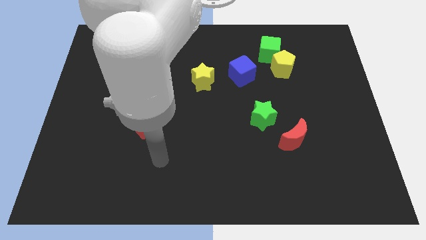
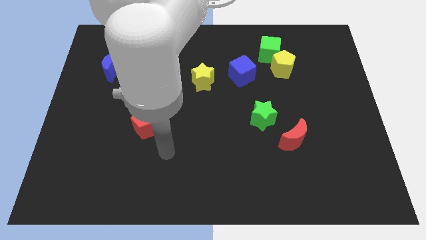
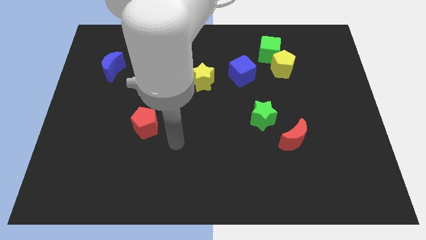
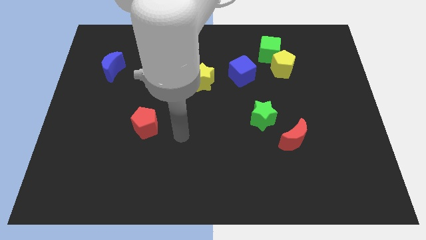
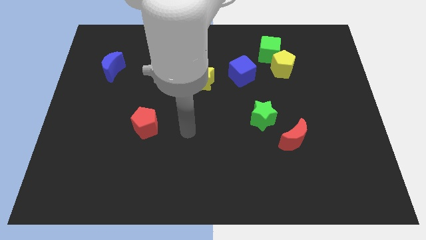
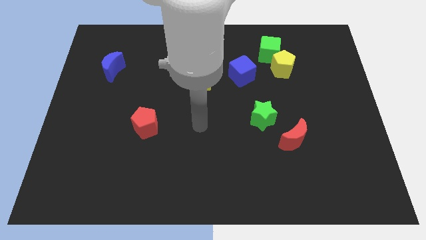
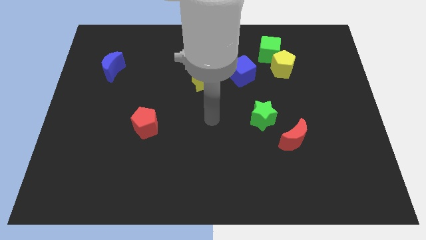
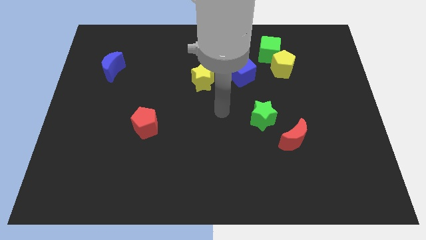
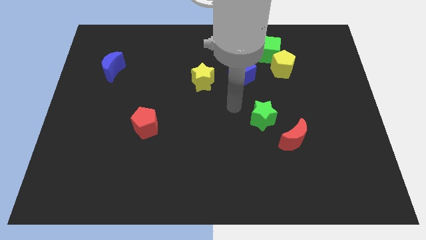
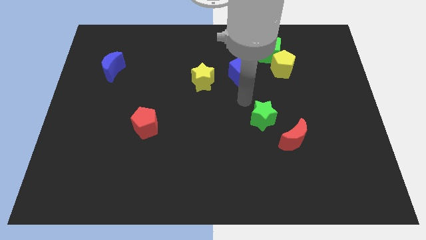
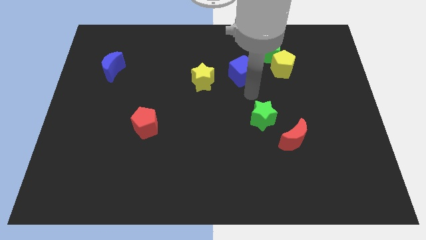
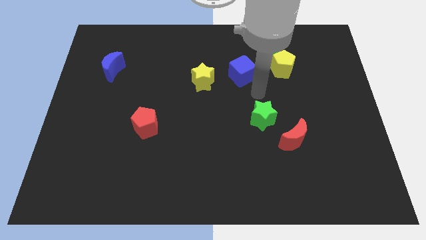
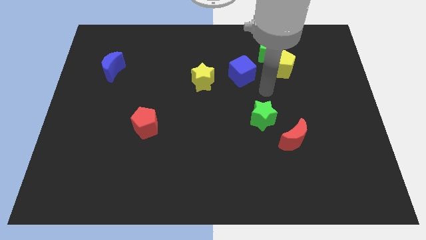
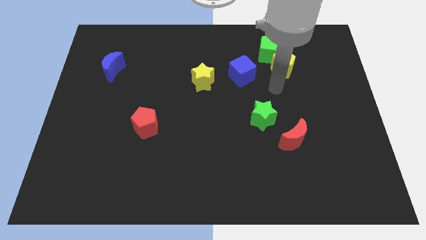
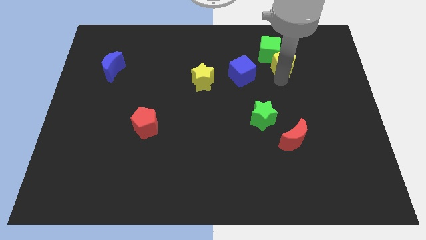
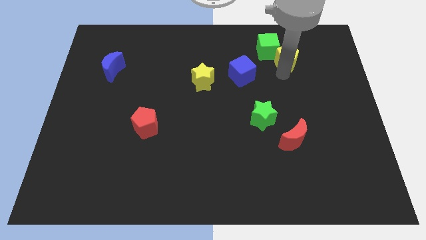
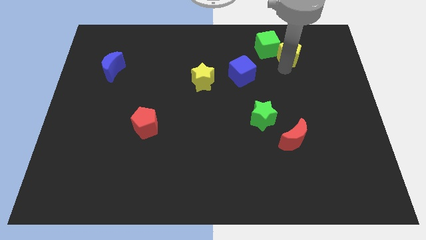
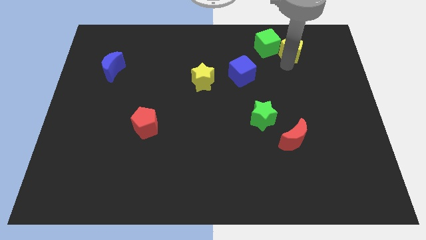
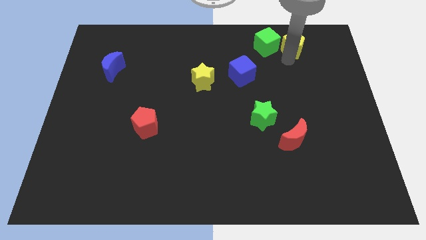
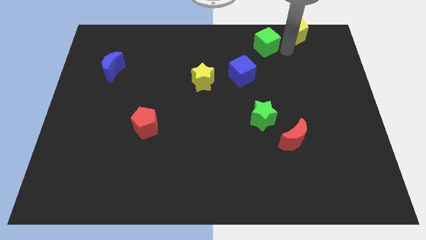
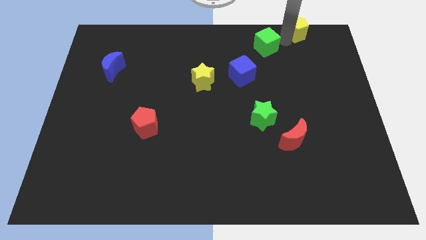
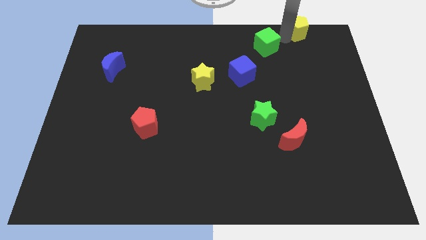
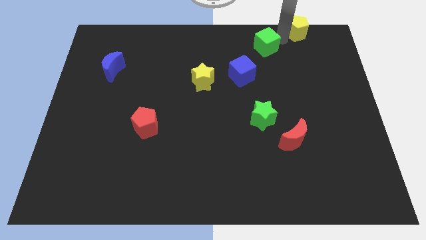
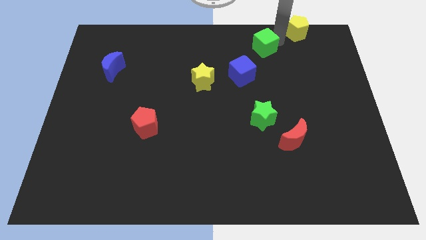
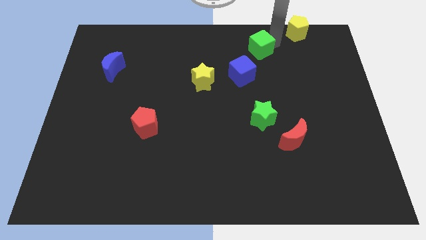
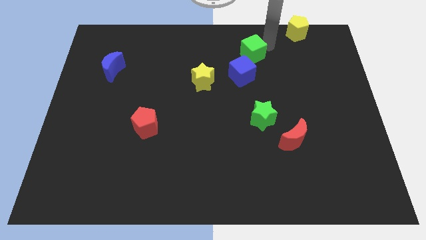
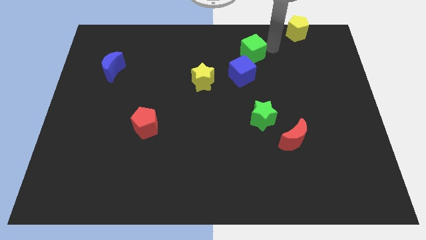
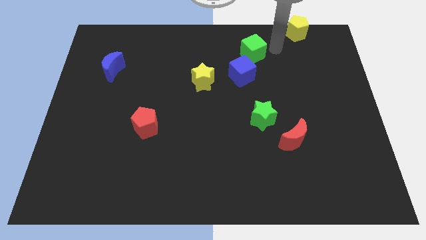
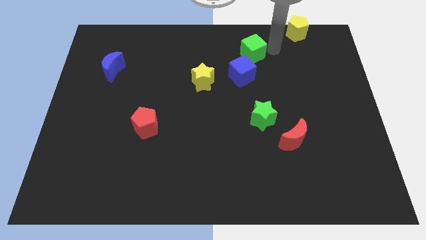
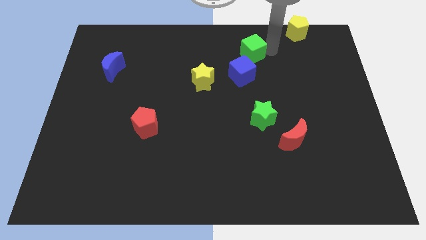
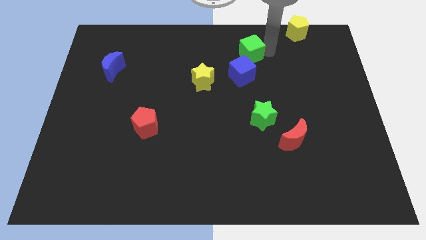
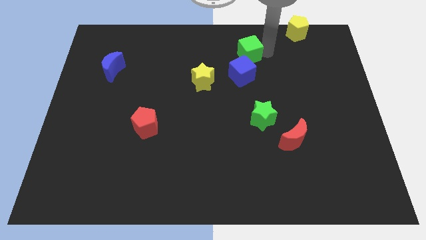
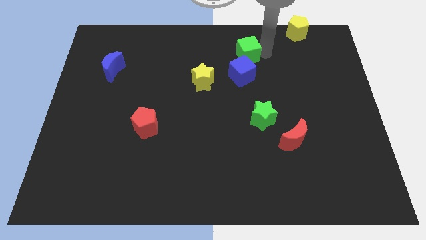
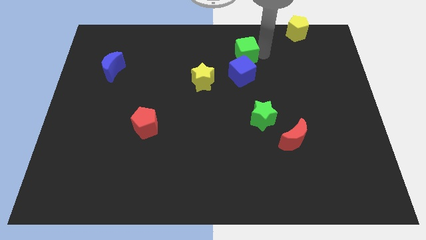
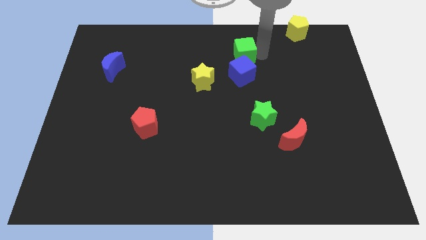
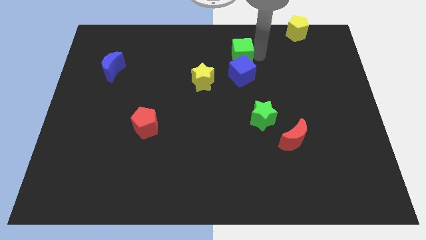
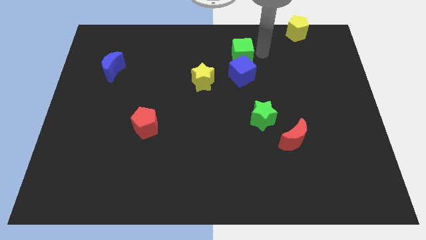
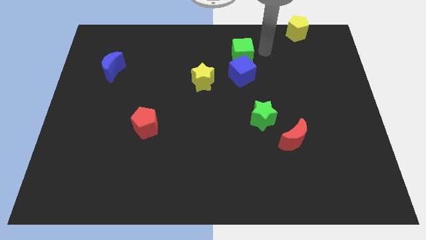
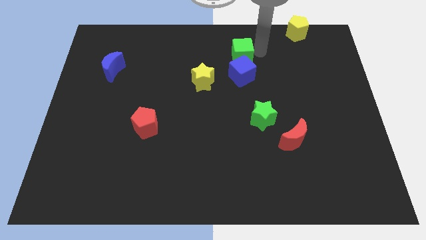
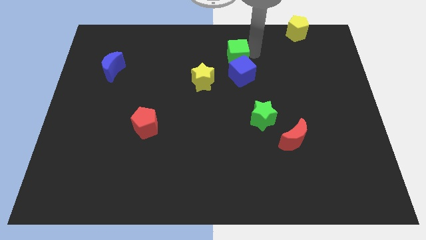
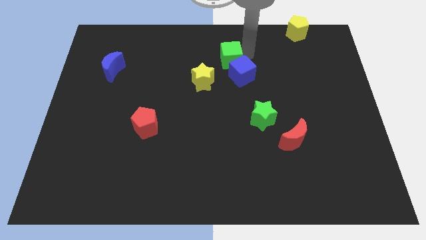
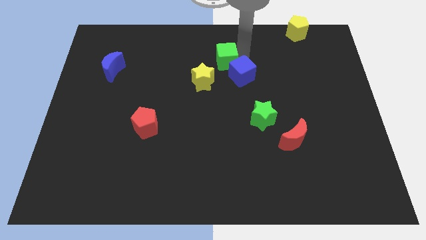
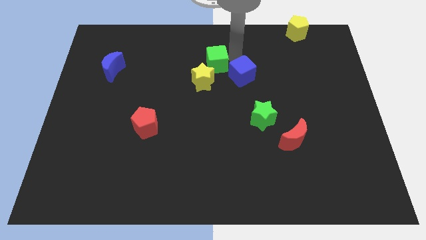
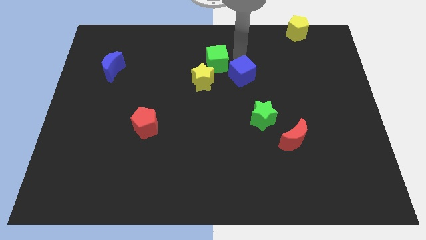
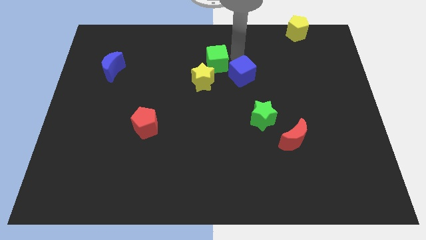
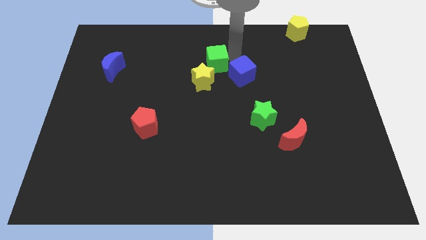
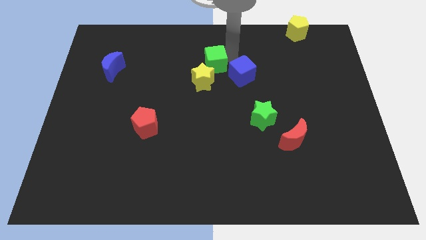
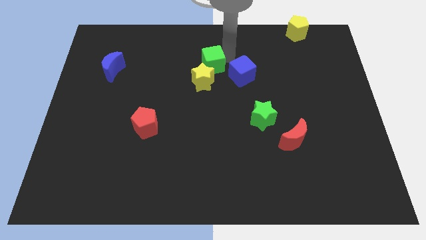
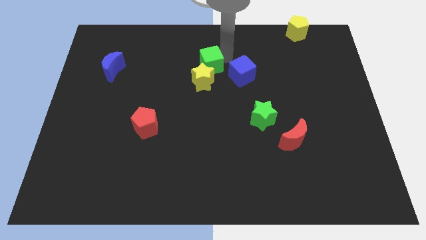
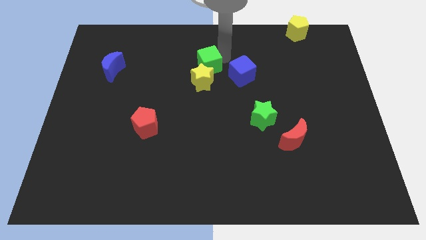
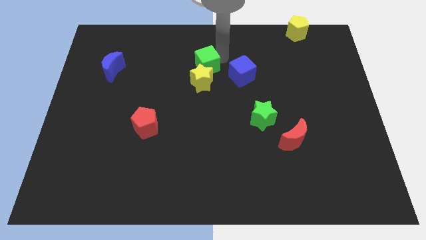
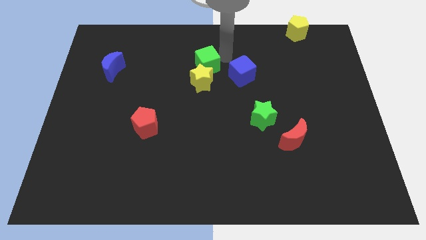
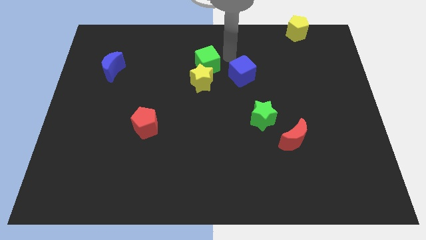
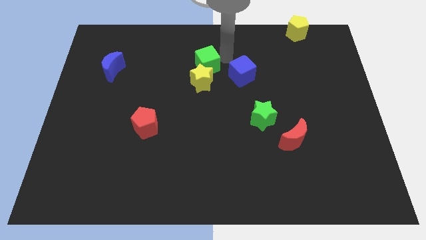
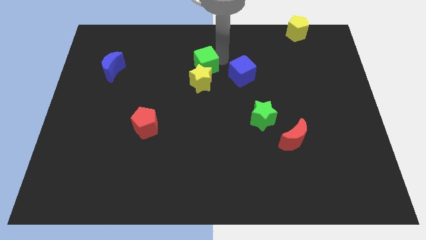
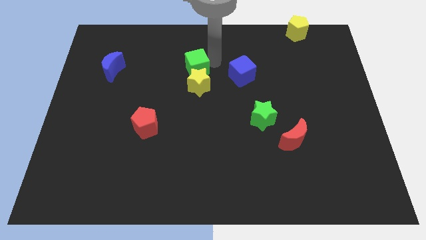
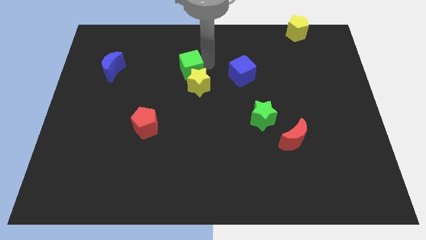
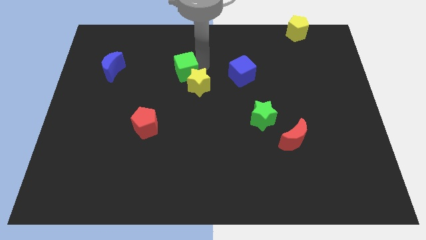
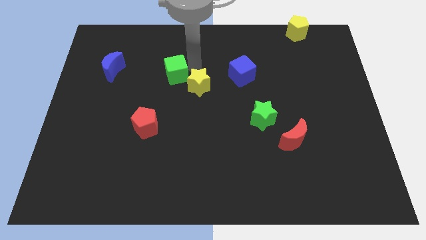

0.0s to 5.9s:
put the green cube to the left side of the yellow star

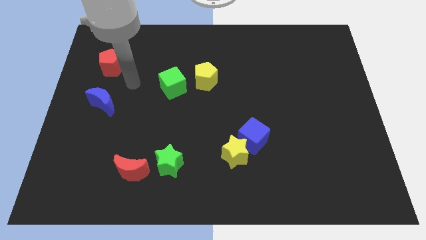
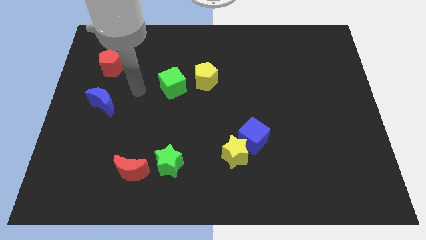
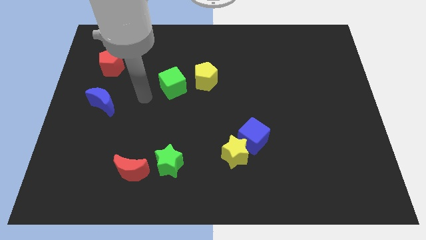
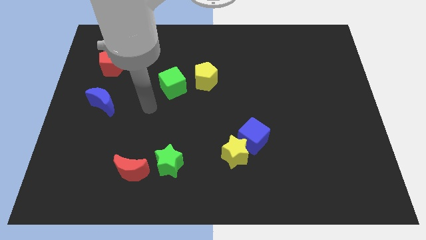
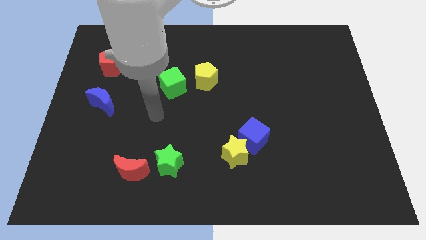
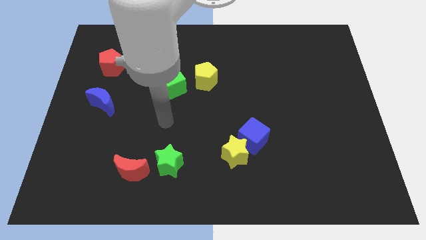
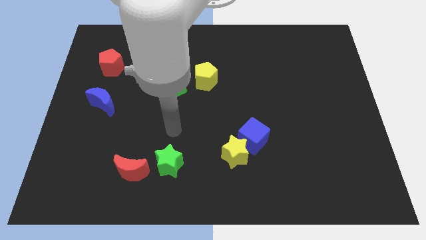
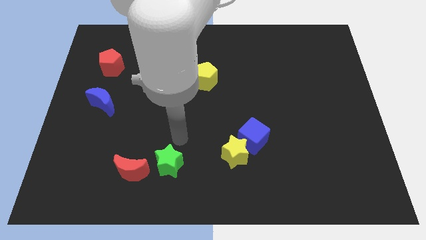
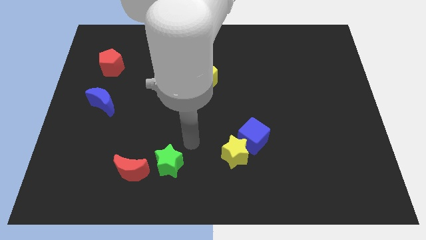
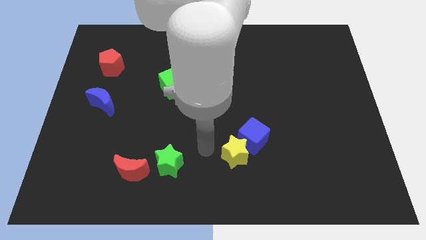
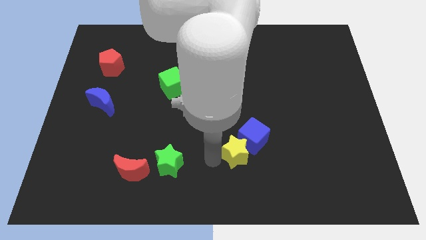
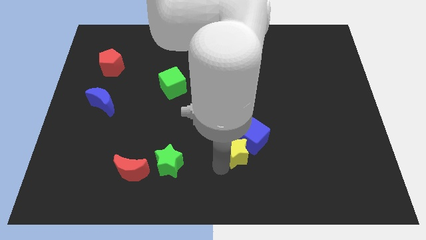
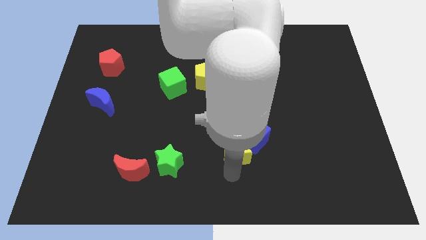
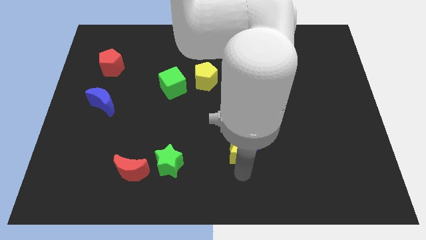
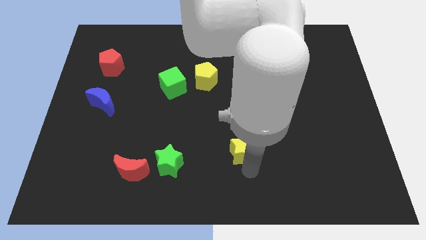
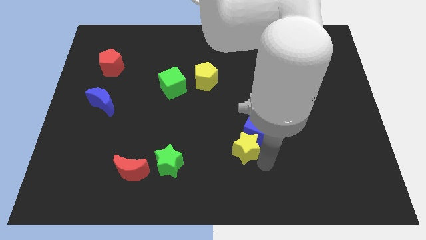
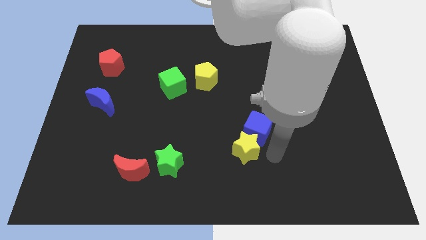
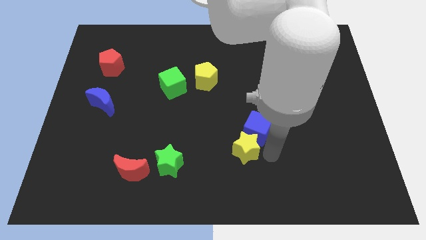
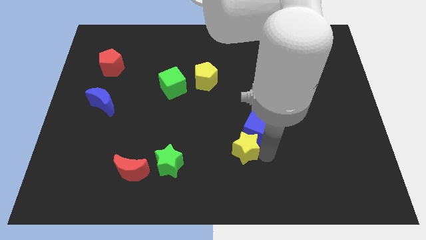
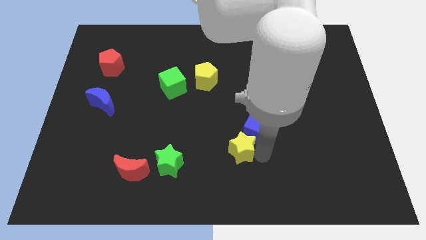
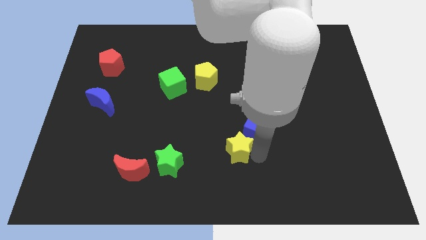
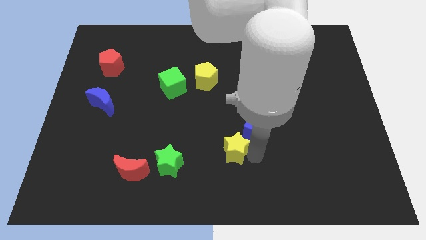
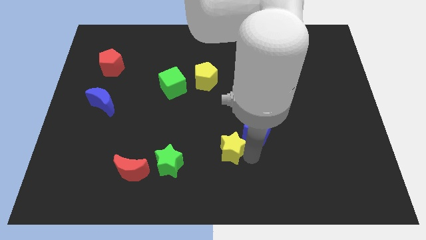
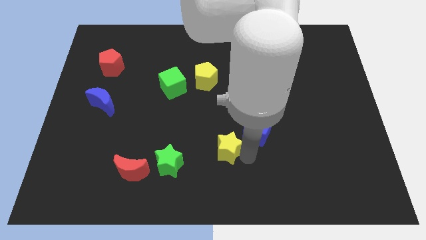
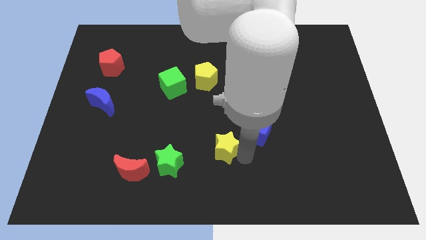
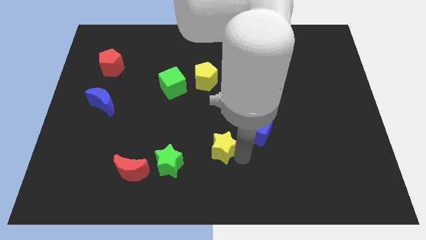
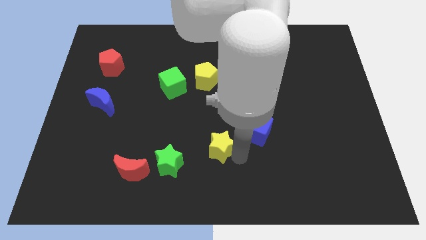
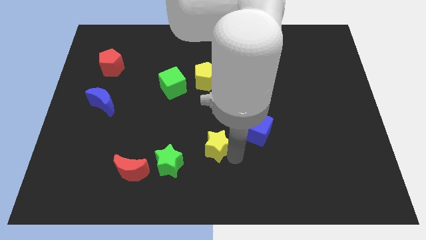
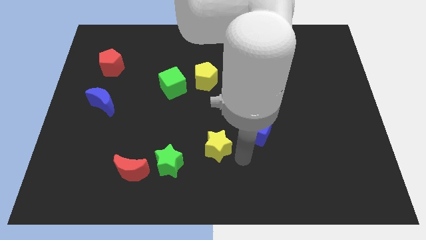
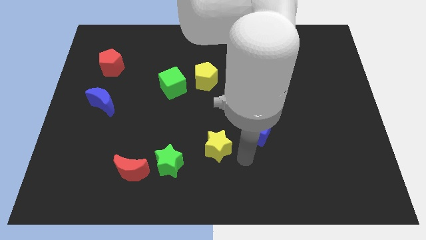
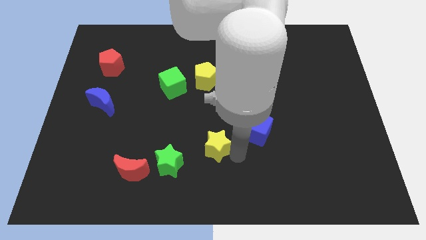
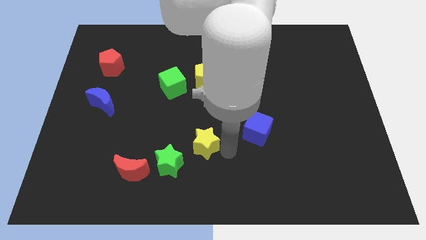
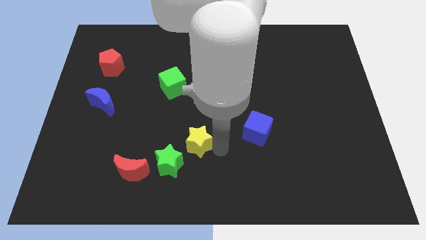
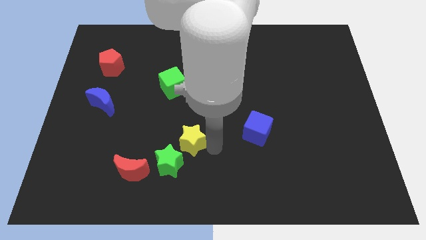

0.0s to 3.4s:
slide the yellow star to the top side of the green star
